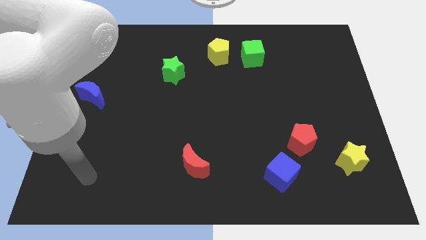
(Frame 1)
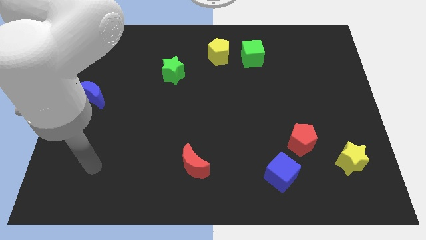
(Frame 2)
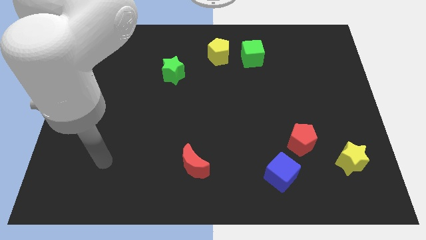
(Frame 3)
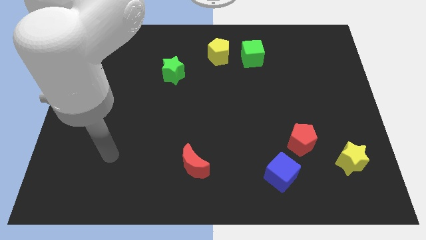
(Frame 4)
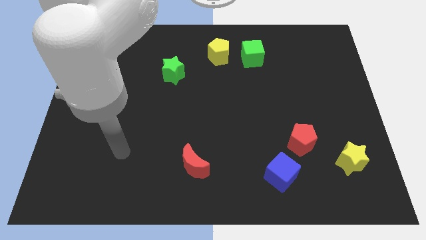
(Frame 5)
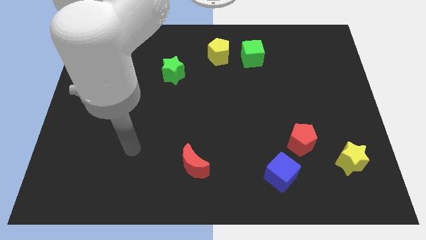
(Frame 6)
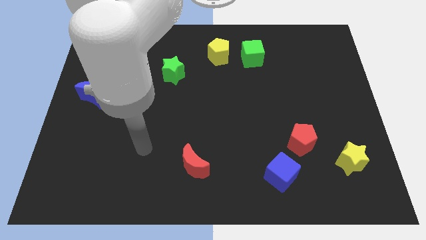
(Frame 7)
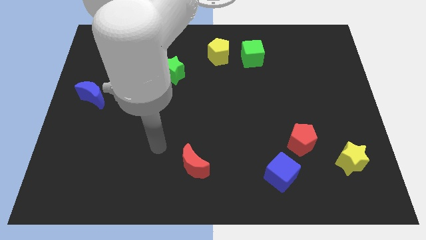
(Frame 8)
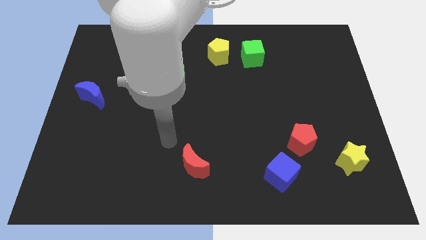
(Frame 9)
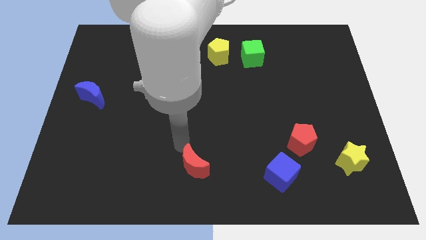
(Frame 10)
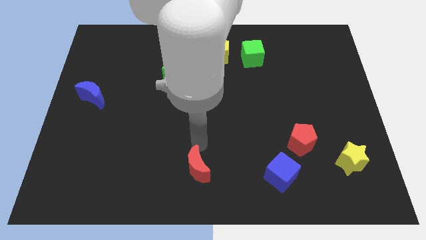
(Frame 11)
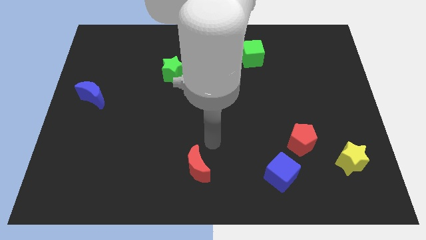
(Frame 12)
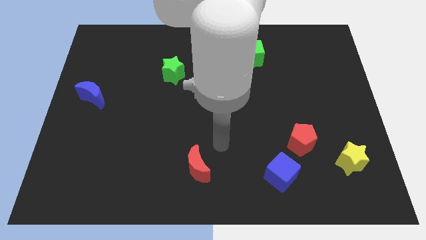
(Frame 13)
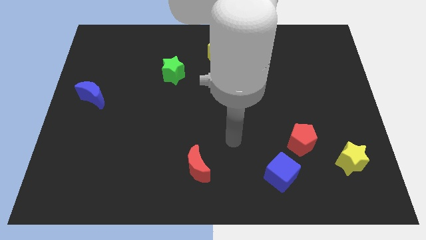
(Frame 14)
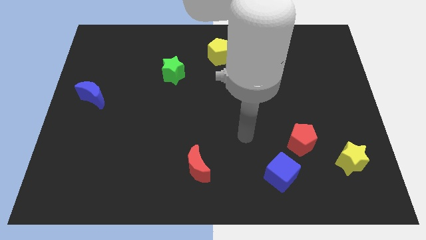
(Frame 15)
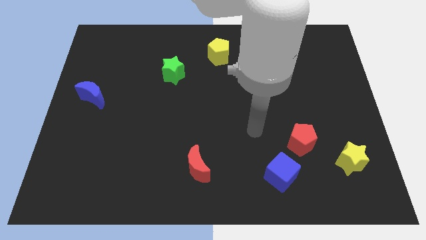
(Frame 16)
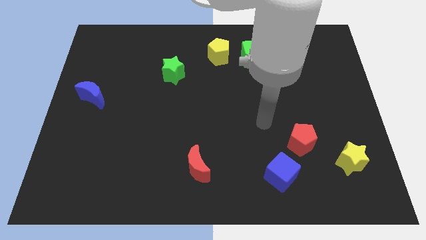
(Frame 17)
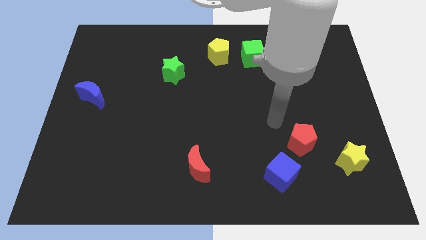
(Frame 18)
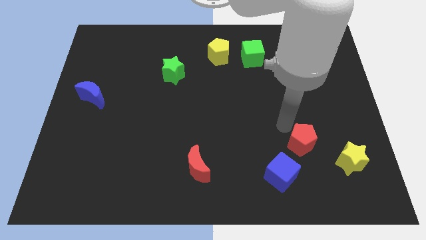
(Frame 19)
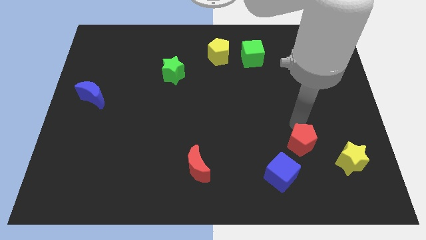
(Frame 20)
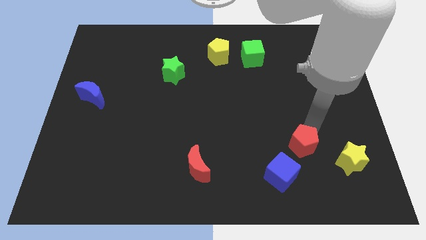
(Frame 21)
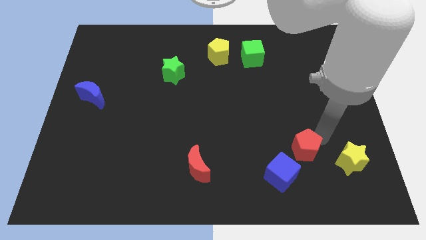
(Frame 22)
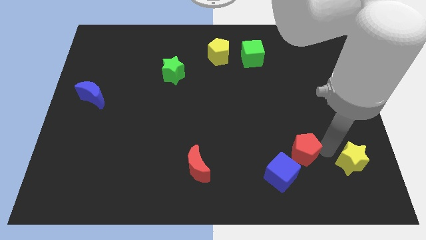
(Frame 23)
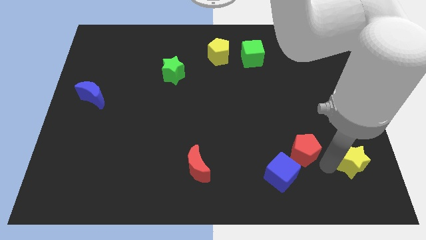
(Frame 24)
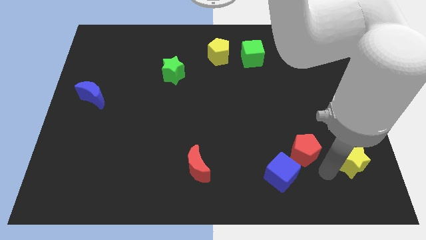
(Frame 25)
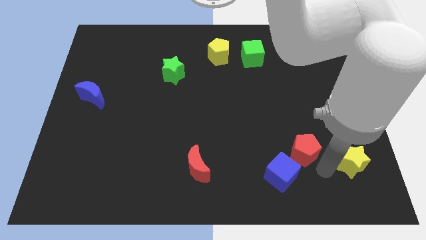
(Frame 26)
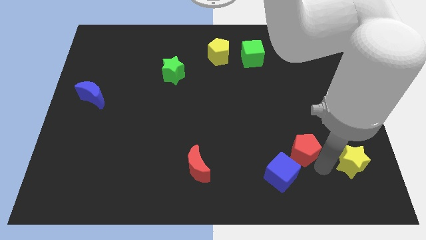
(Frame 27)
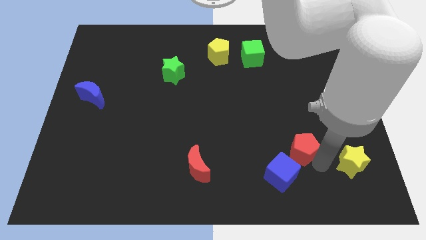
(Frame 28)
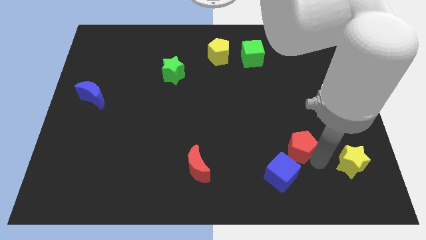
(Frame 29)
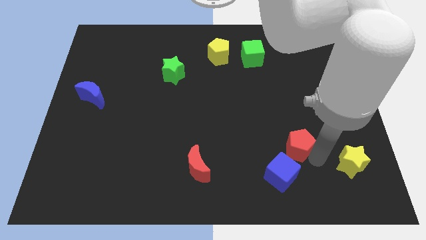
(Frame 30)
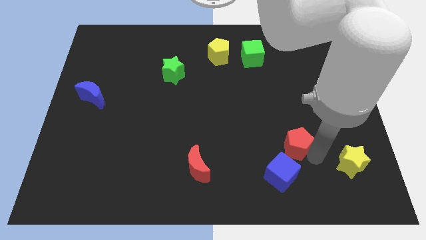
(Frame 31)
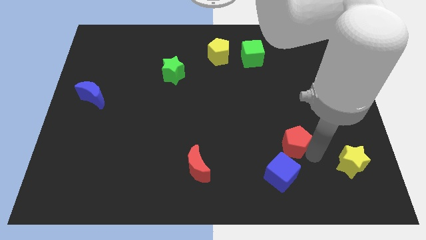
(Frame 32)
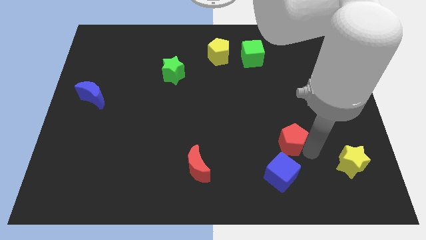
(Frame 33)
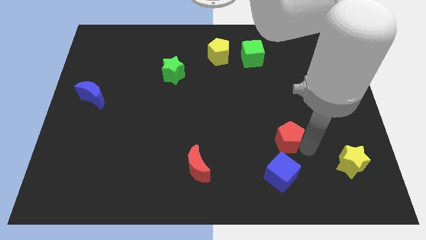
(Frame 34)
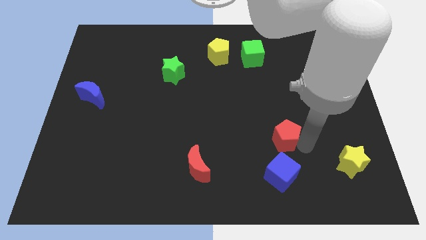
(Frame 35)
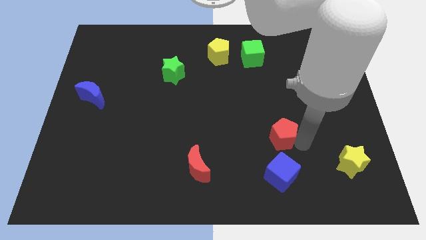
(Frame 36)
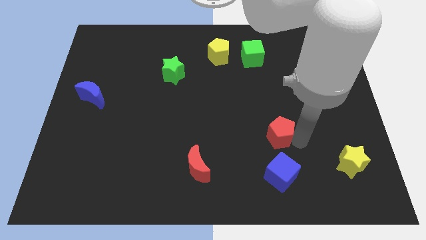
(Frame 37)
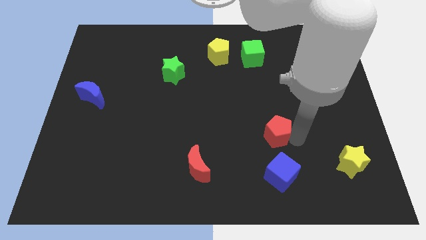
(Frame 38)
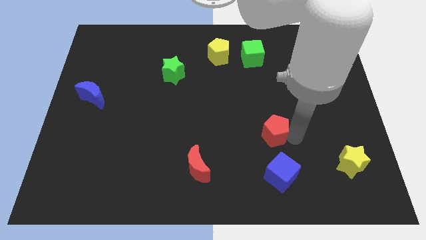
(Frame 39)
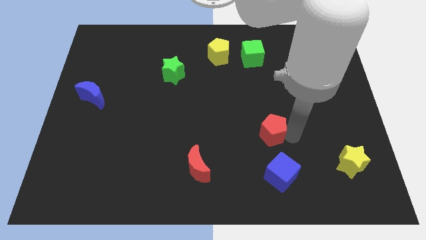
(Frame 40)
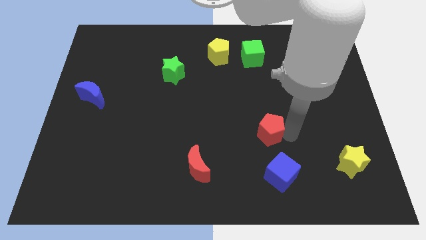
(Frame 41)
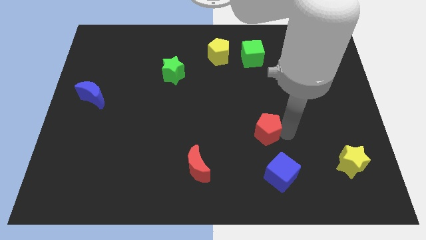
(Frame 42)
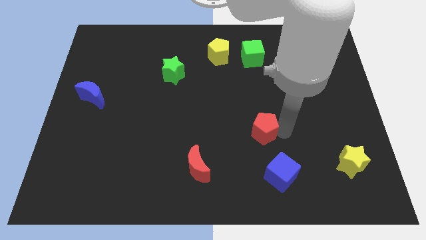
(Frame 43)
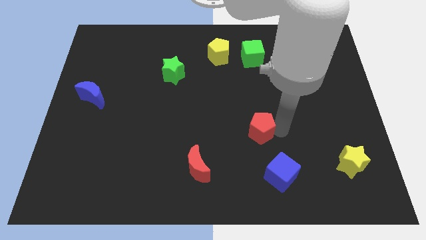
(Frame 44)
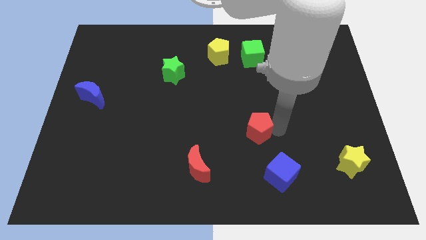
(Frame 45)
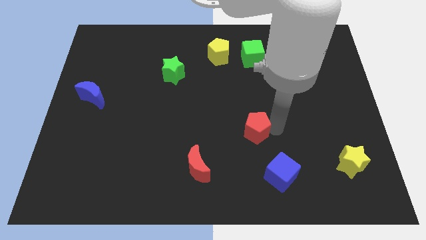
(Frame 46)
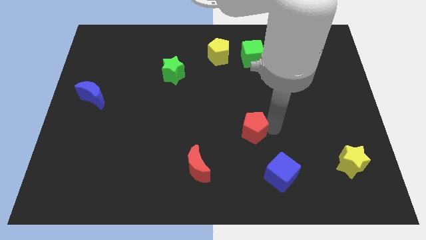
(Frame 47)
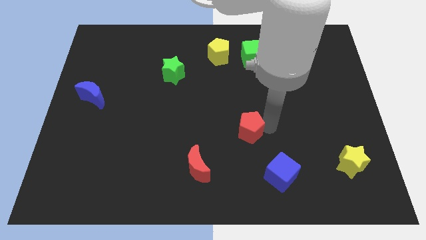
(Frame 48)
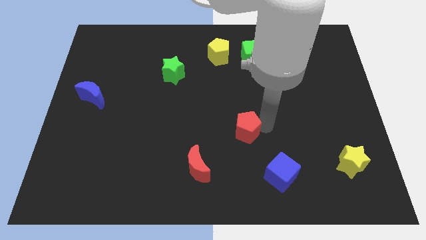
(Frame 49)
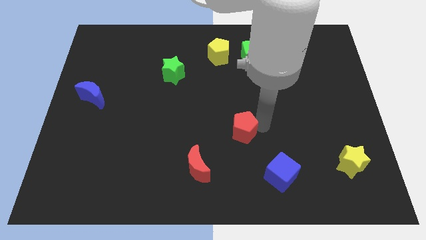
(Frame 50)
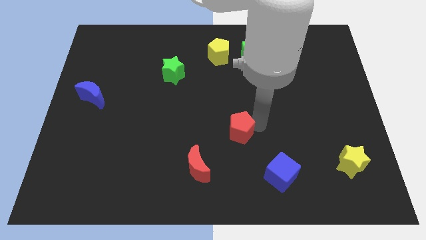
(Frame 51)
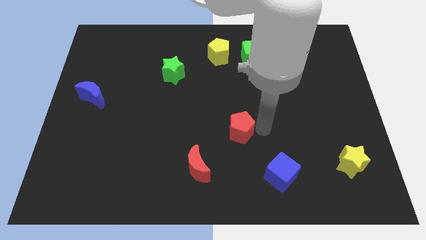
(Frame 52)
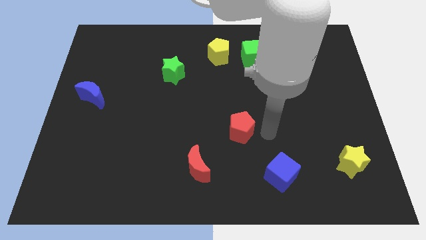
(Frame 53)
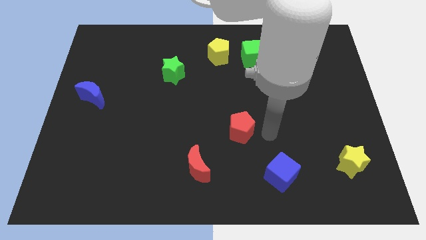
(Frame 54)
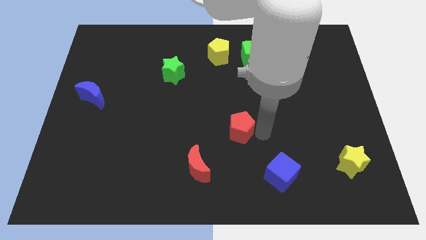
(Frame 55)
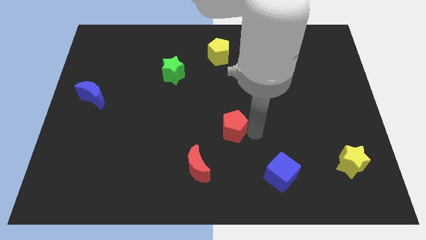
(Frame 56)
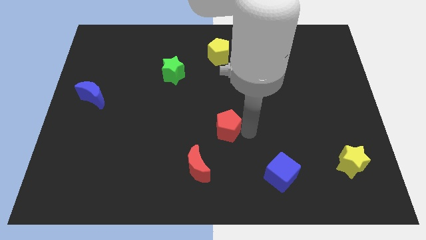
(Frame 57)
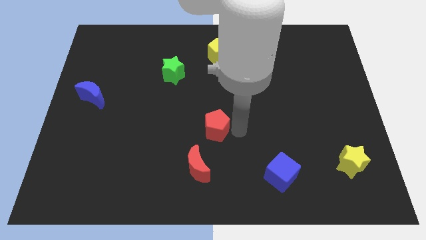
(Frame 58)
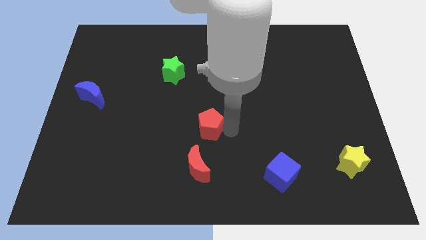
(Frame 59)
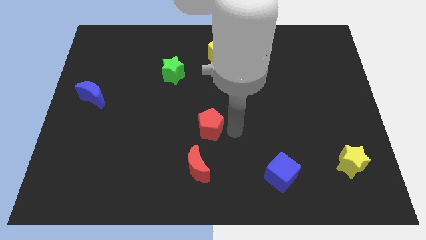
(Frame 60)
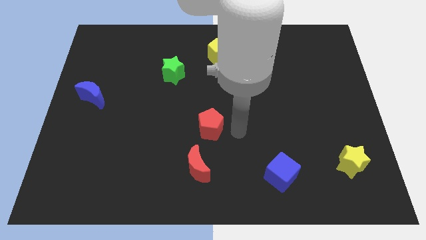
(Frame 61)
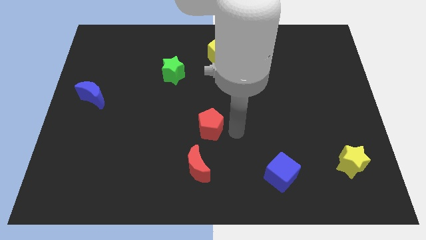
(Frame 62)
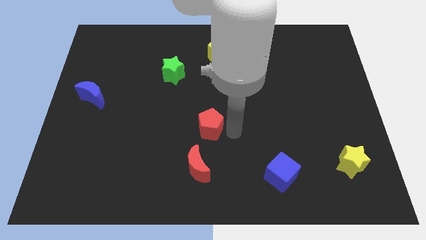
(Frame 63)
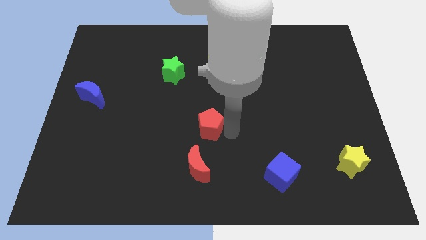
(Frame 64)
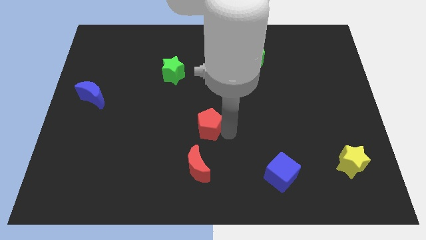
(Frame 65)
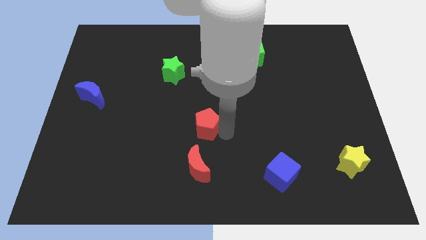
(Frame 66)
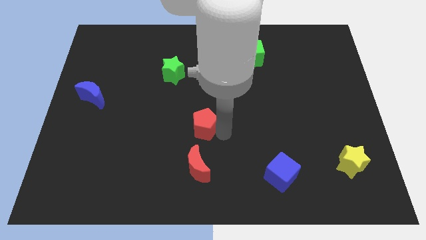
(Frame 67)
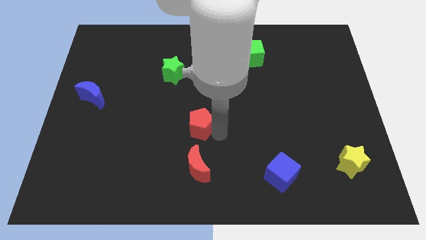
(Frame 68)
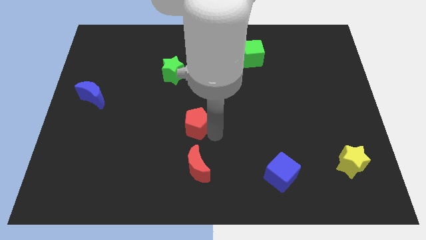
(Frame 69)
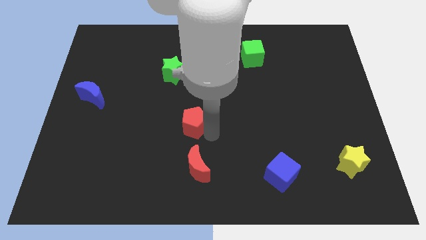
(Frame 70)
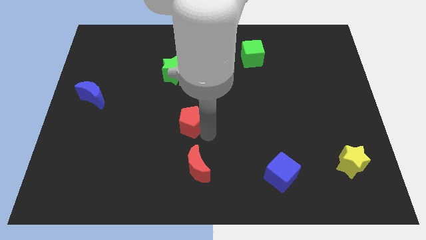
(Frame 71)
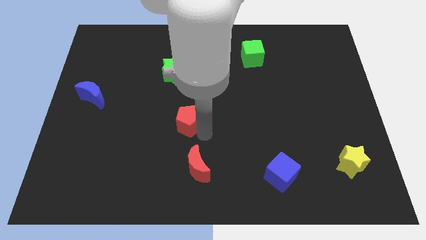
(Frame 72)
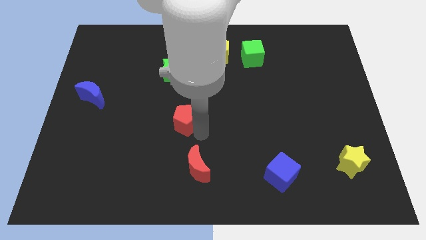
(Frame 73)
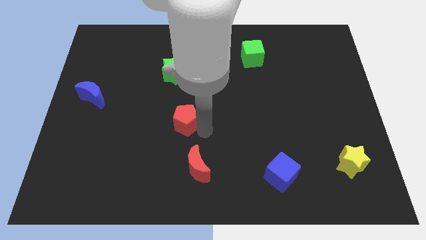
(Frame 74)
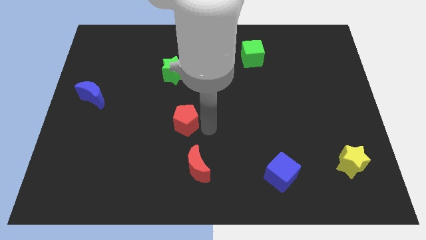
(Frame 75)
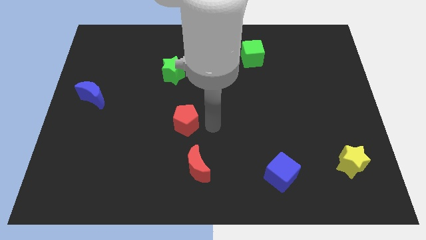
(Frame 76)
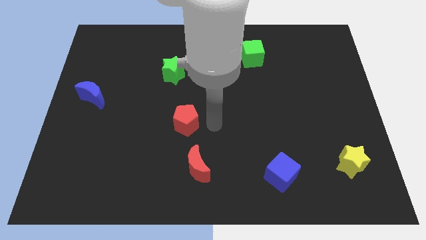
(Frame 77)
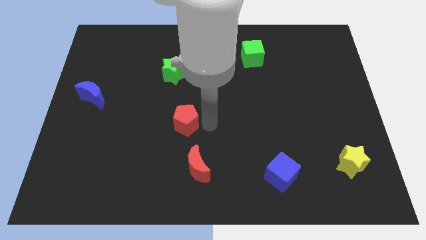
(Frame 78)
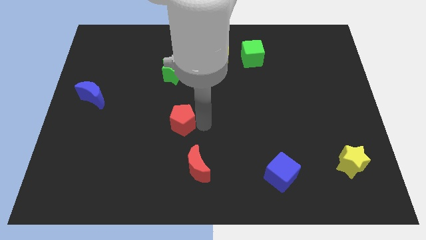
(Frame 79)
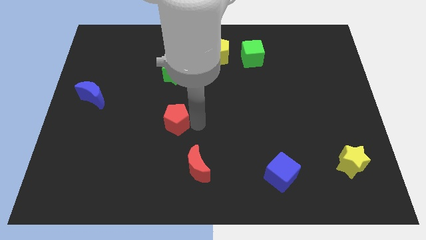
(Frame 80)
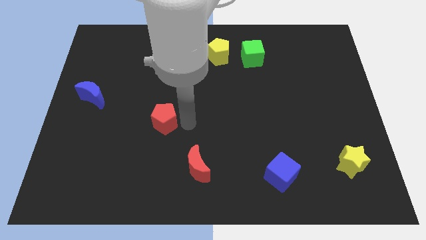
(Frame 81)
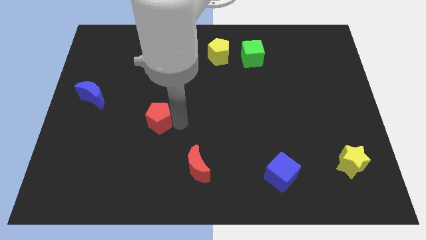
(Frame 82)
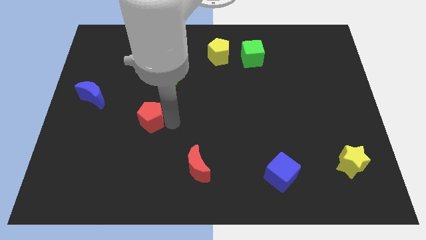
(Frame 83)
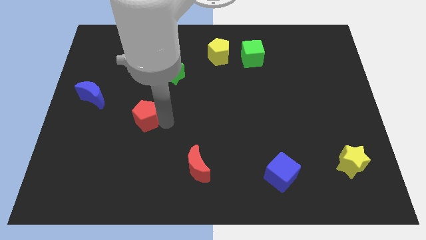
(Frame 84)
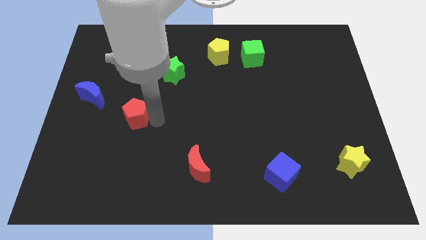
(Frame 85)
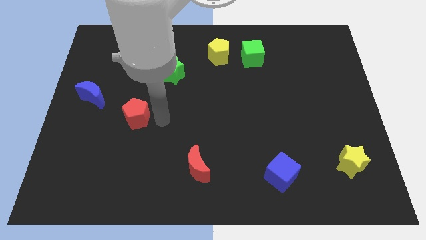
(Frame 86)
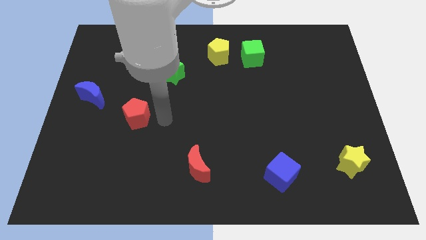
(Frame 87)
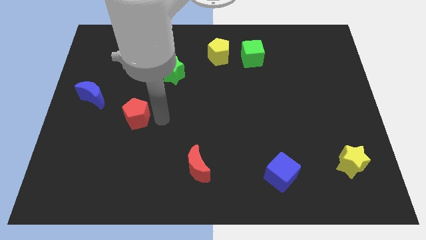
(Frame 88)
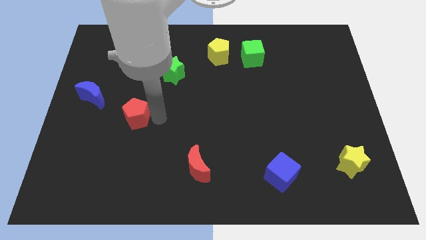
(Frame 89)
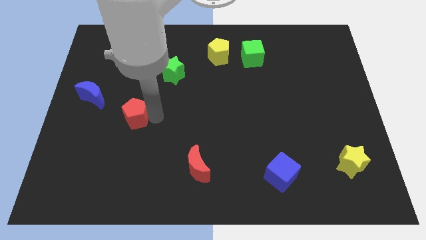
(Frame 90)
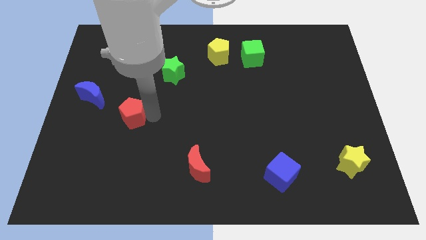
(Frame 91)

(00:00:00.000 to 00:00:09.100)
move the red pentagon diagonally down and to the right of the blue moon
